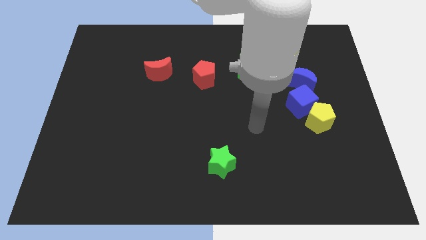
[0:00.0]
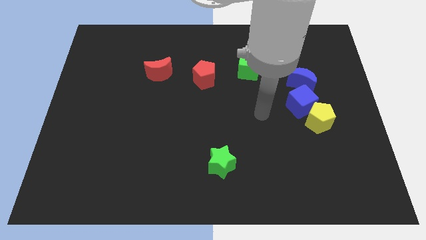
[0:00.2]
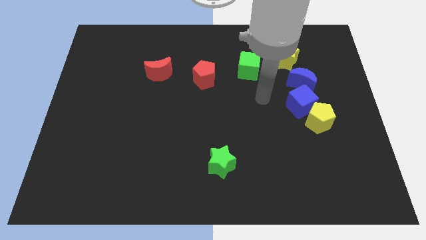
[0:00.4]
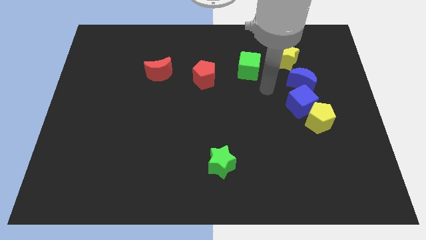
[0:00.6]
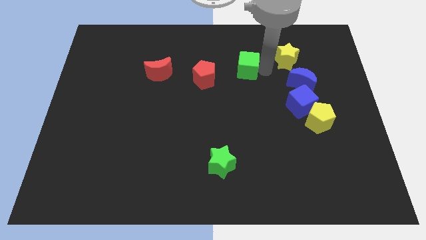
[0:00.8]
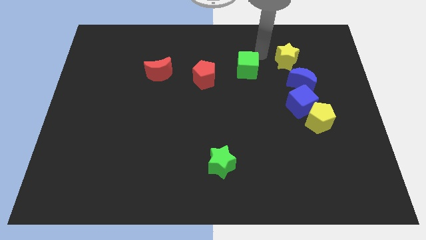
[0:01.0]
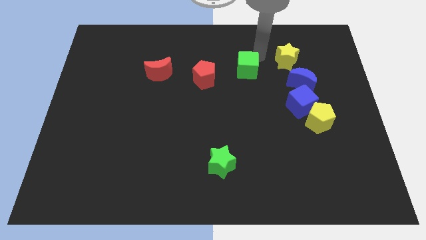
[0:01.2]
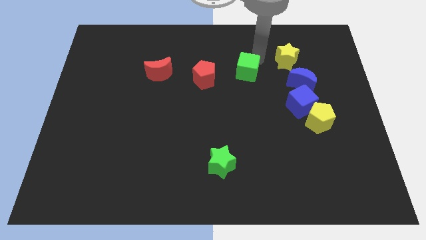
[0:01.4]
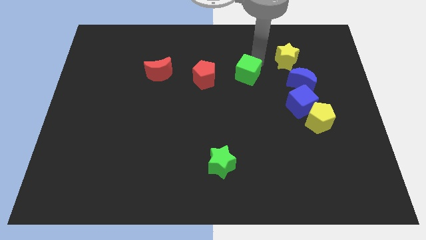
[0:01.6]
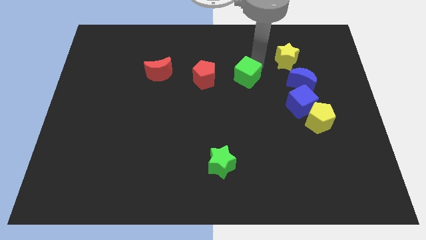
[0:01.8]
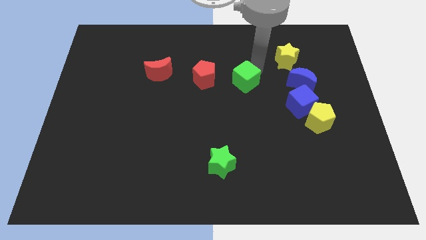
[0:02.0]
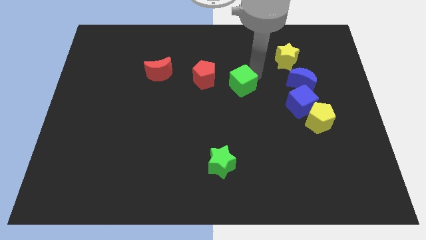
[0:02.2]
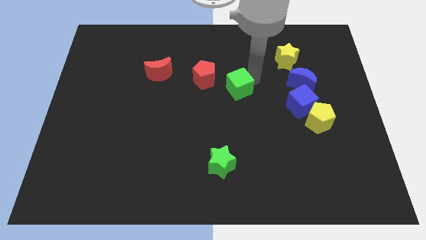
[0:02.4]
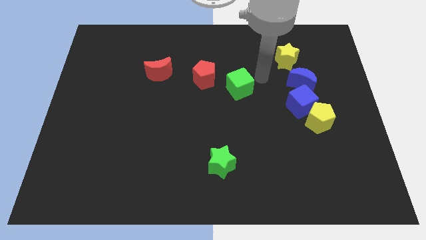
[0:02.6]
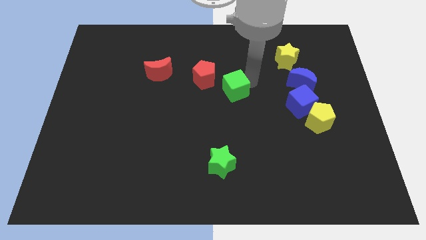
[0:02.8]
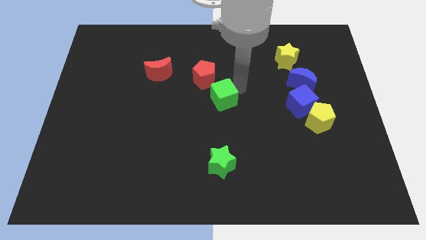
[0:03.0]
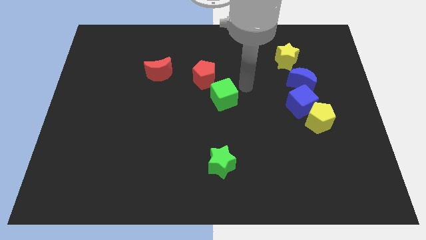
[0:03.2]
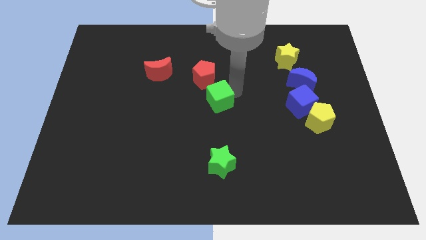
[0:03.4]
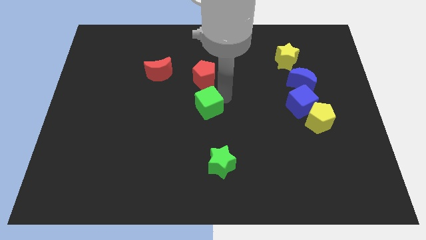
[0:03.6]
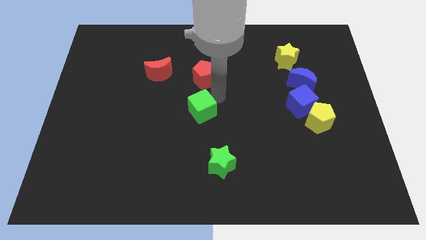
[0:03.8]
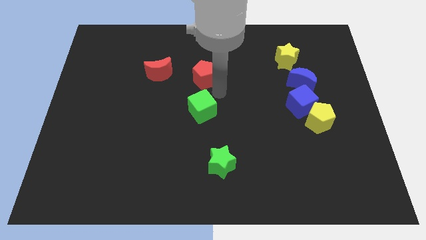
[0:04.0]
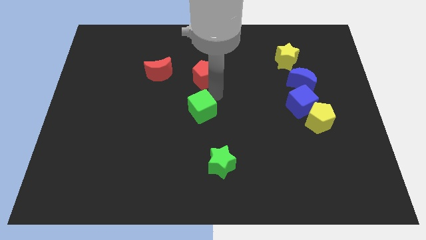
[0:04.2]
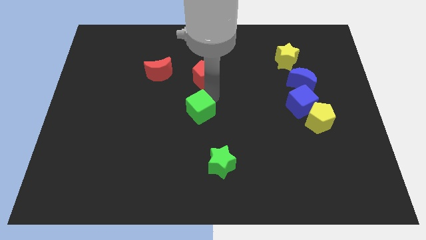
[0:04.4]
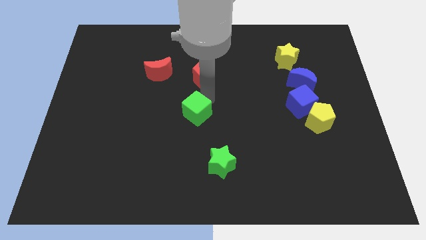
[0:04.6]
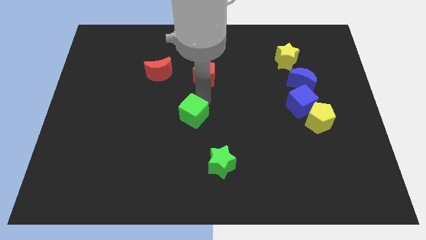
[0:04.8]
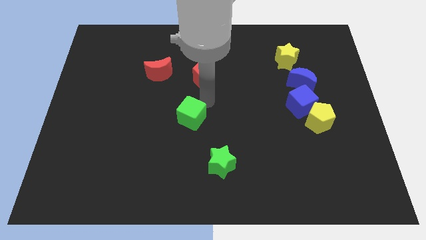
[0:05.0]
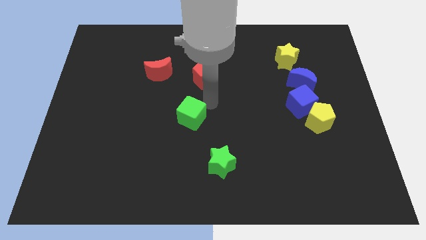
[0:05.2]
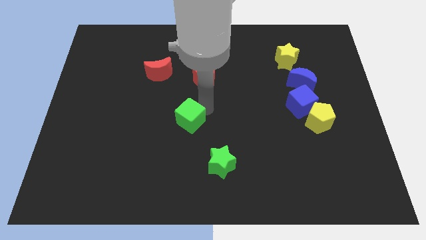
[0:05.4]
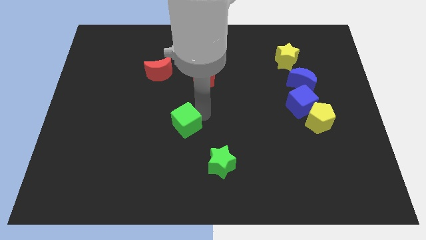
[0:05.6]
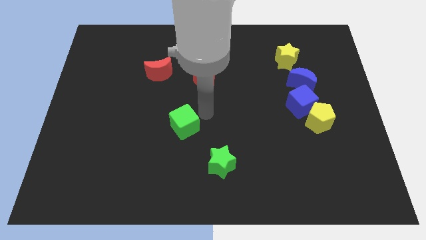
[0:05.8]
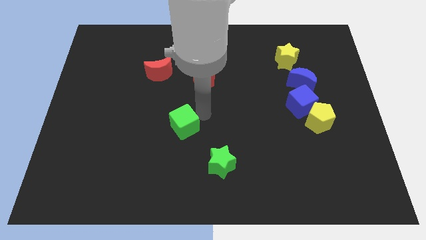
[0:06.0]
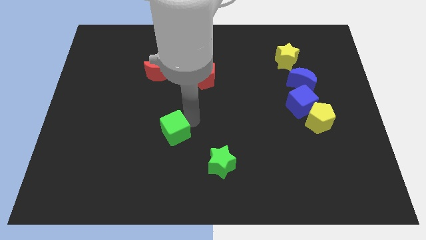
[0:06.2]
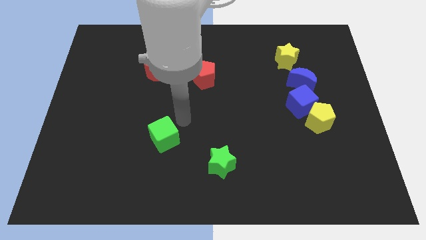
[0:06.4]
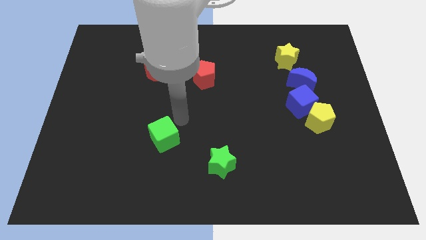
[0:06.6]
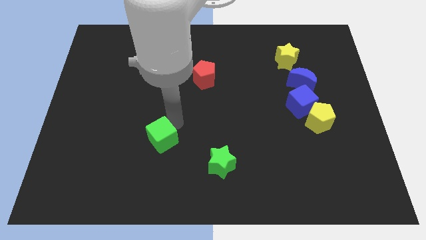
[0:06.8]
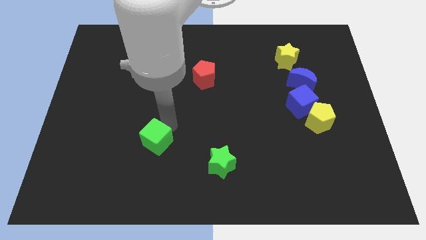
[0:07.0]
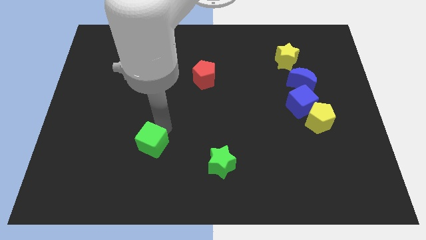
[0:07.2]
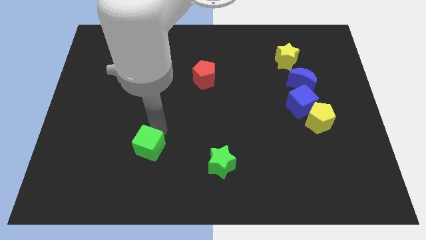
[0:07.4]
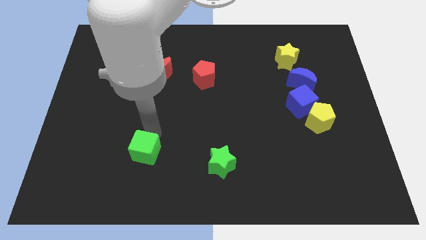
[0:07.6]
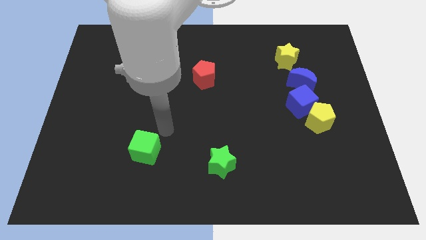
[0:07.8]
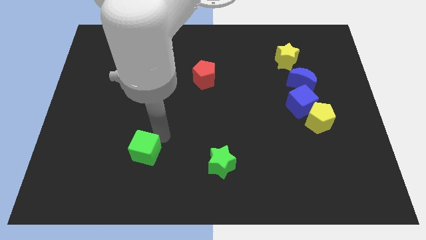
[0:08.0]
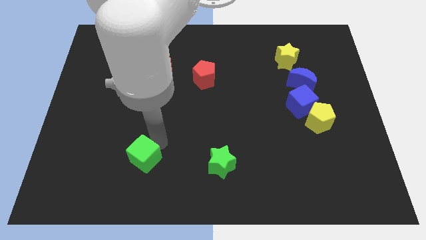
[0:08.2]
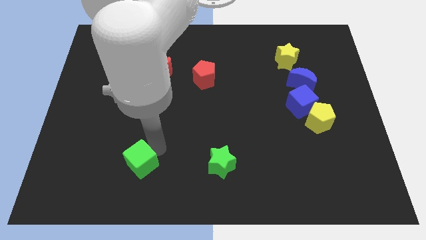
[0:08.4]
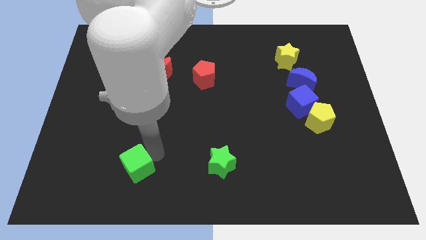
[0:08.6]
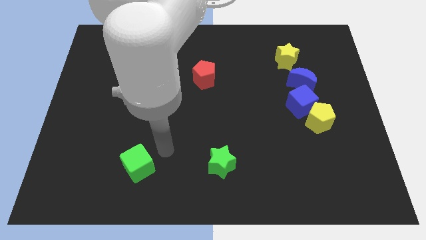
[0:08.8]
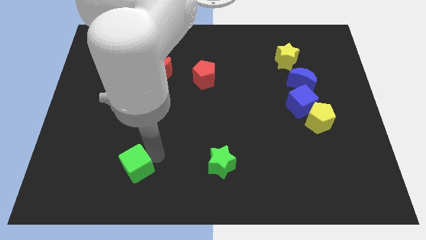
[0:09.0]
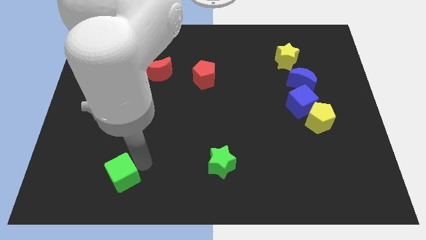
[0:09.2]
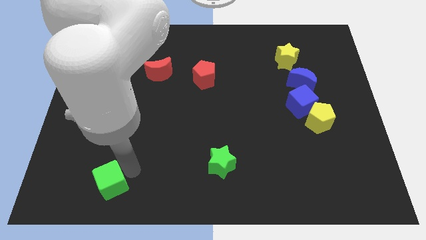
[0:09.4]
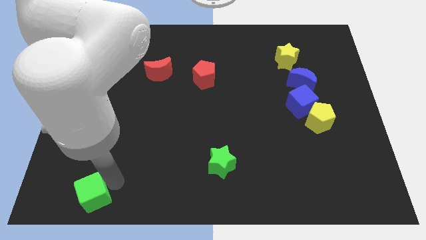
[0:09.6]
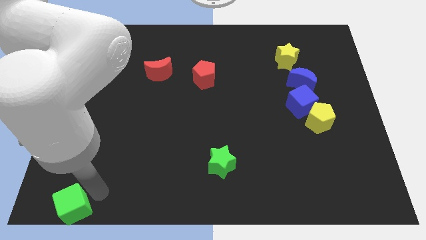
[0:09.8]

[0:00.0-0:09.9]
push the green cube to the bottom left

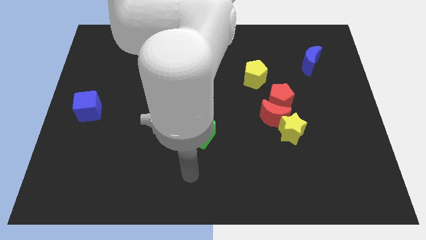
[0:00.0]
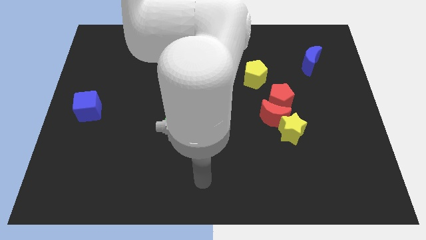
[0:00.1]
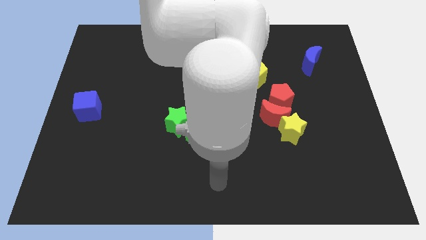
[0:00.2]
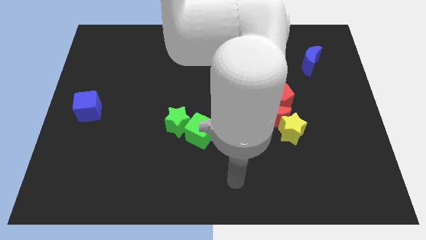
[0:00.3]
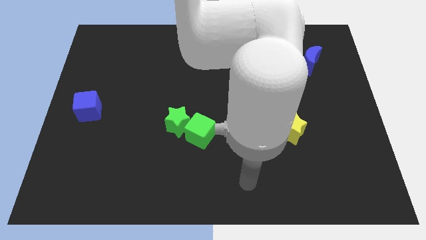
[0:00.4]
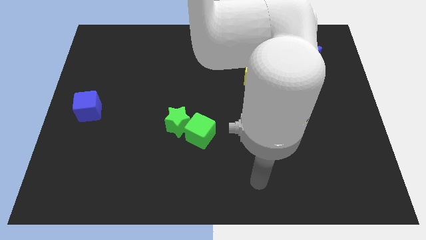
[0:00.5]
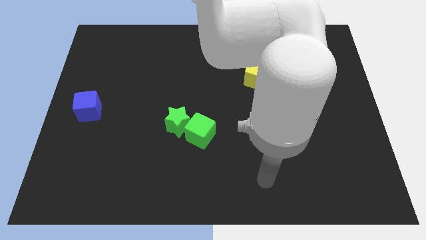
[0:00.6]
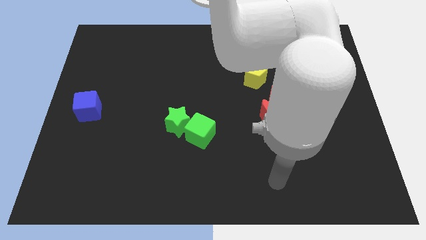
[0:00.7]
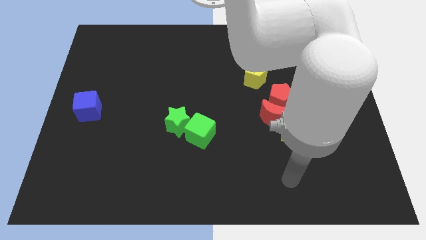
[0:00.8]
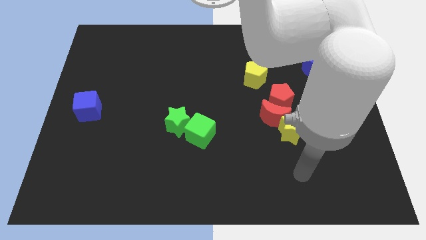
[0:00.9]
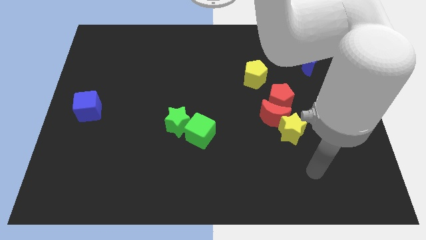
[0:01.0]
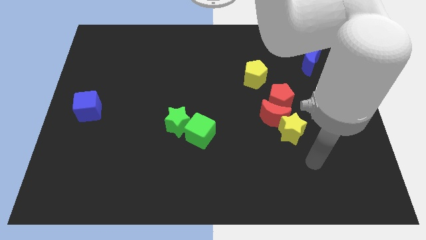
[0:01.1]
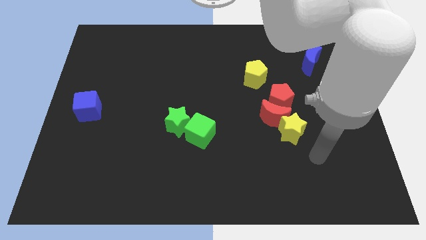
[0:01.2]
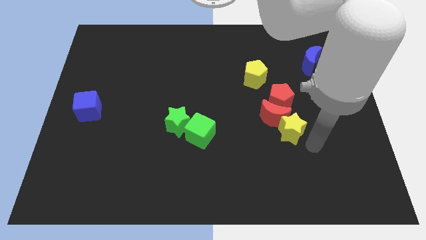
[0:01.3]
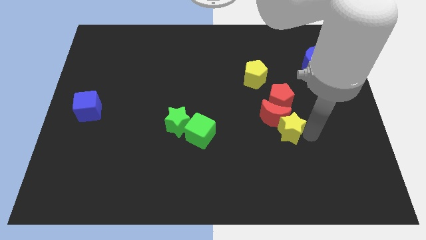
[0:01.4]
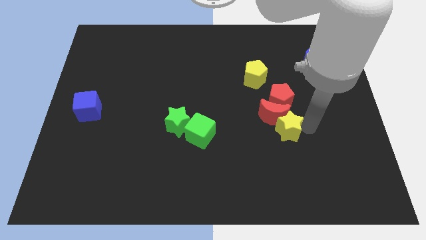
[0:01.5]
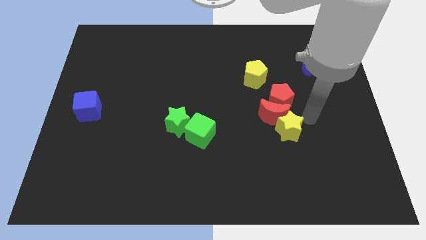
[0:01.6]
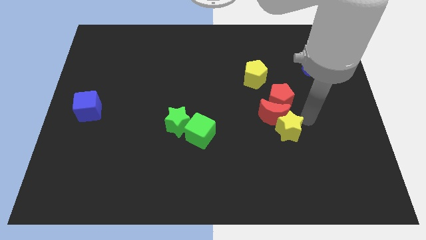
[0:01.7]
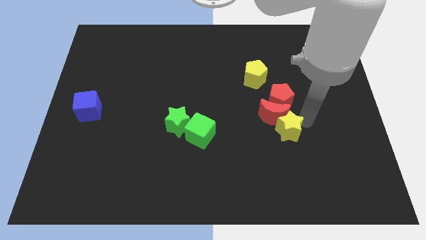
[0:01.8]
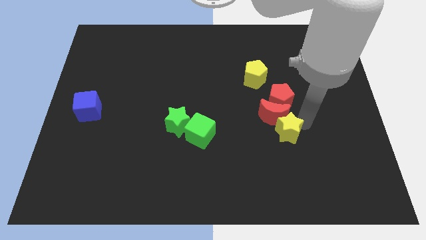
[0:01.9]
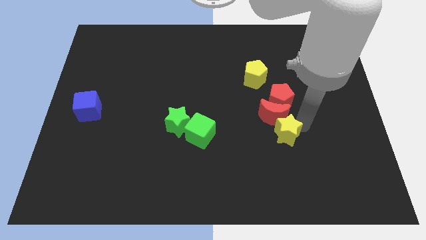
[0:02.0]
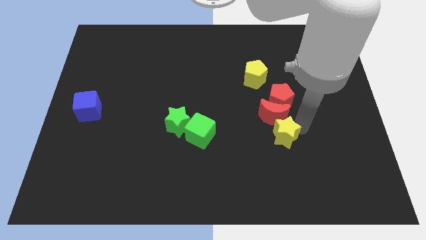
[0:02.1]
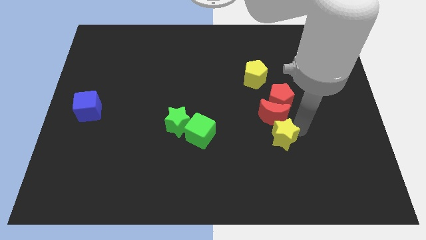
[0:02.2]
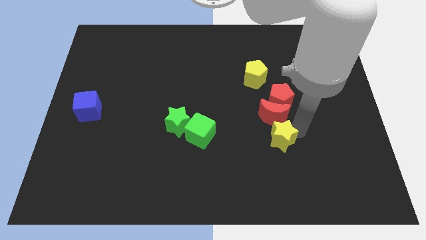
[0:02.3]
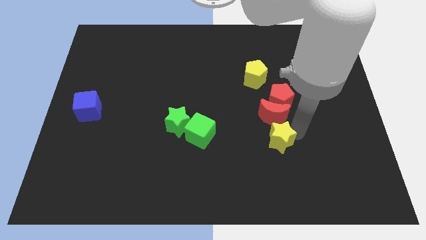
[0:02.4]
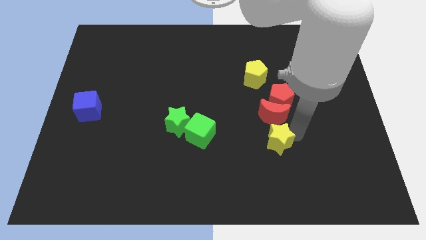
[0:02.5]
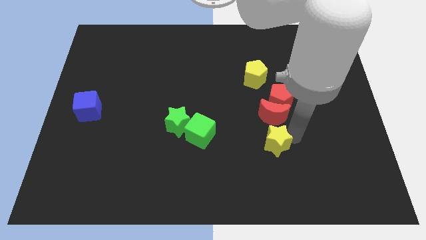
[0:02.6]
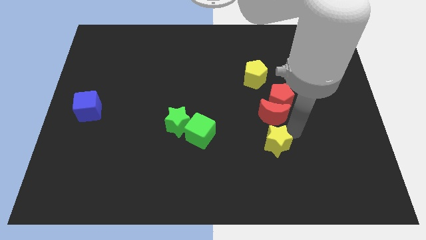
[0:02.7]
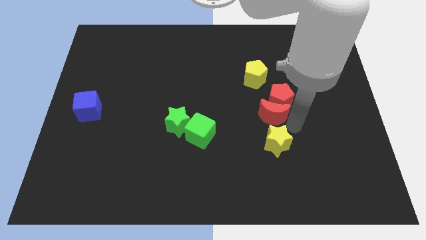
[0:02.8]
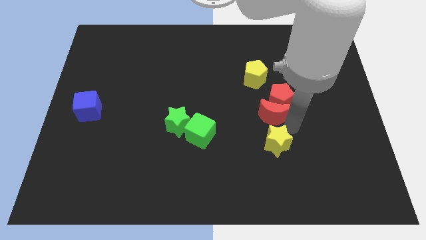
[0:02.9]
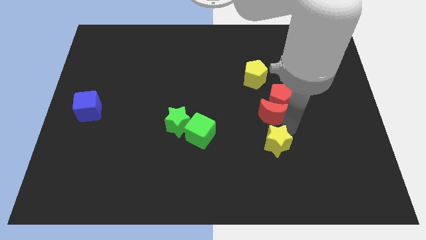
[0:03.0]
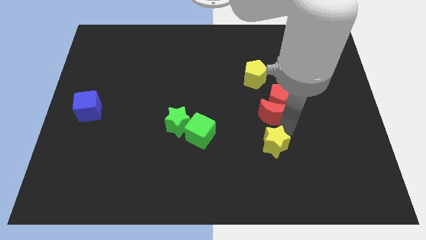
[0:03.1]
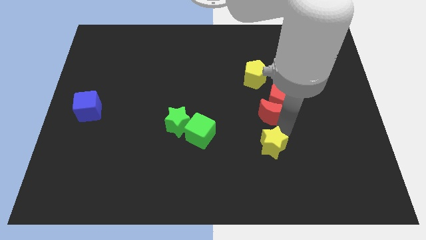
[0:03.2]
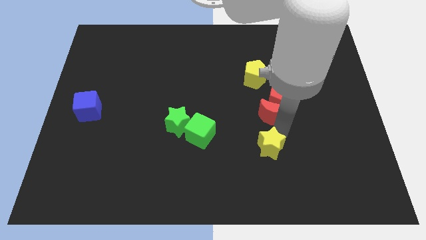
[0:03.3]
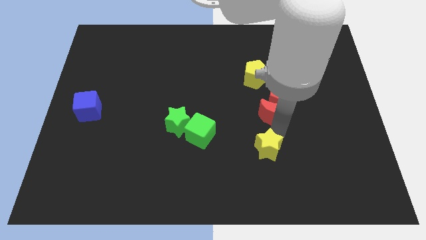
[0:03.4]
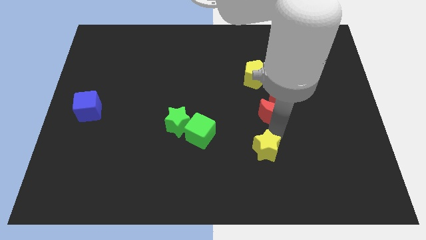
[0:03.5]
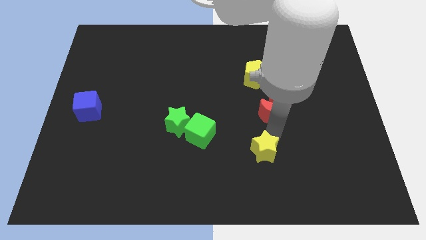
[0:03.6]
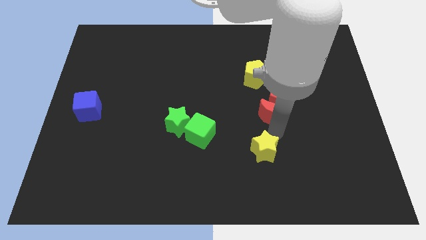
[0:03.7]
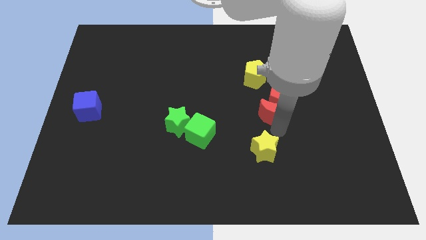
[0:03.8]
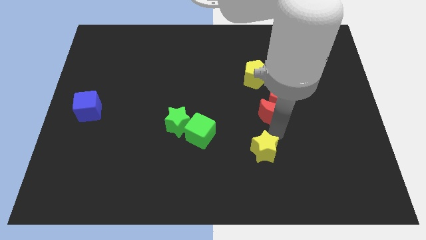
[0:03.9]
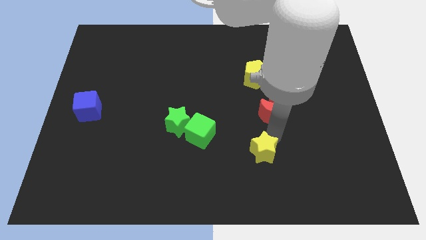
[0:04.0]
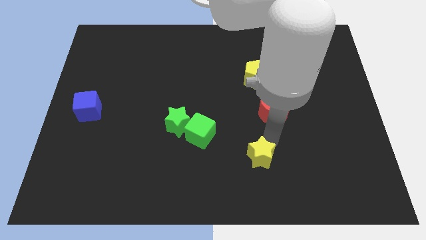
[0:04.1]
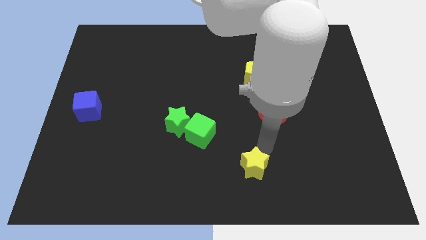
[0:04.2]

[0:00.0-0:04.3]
put the yellow star to the bottom
